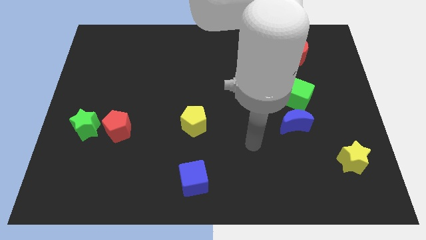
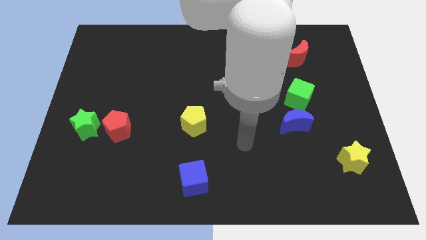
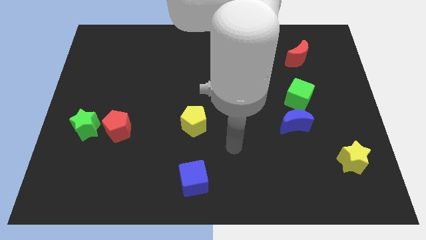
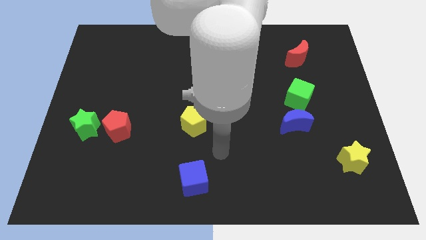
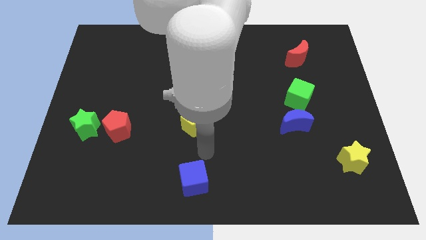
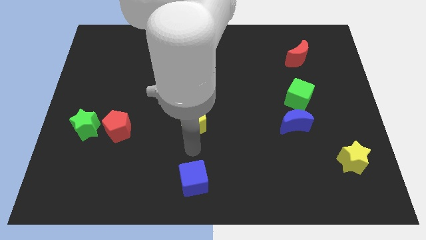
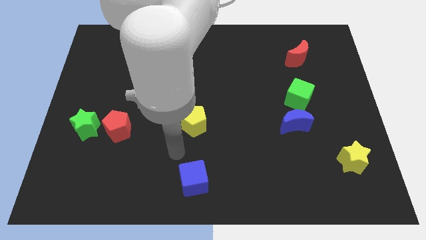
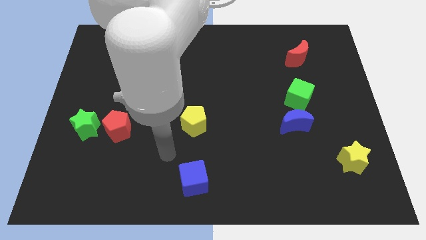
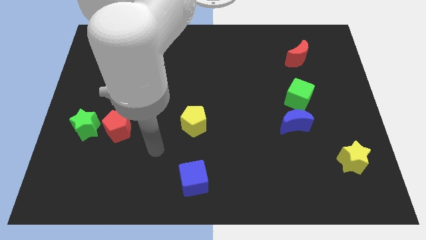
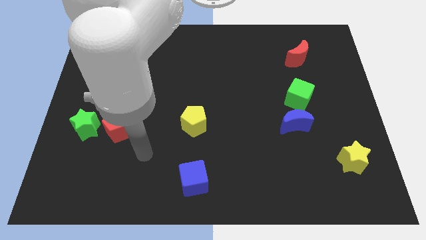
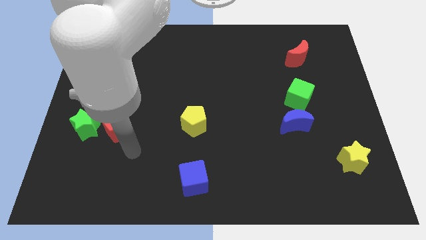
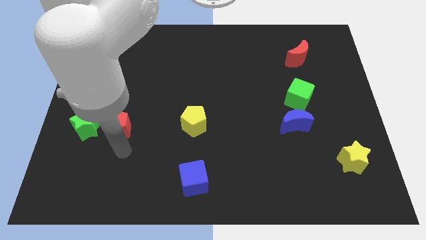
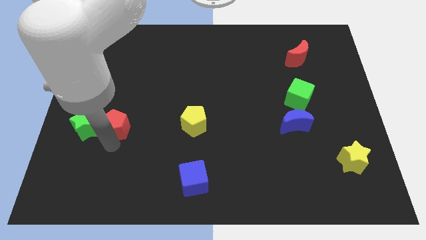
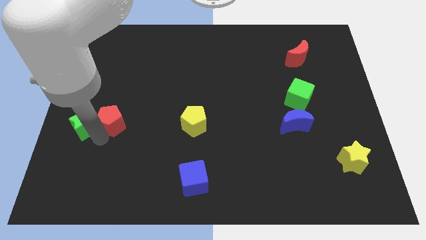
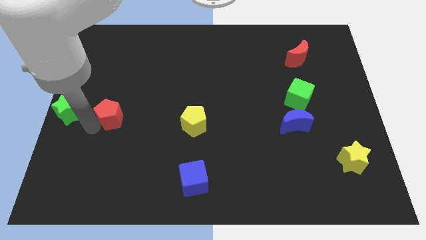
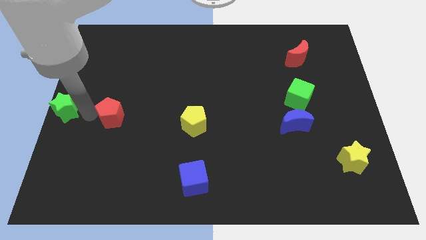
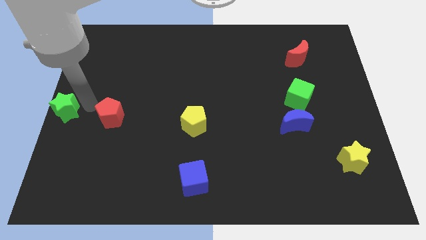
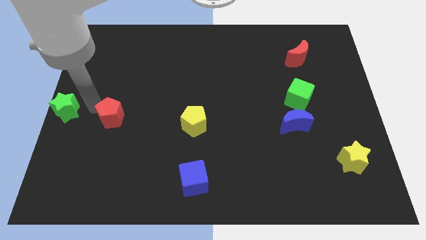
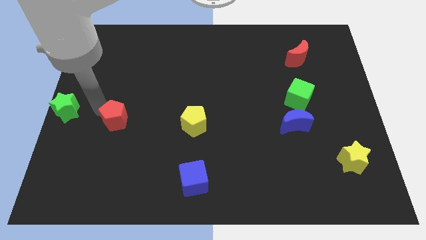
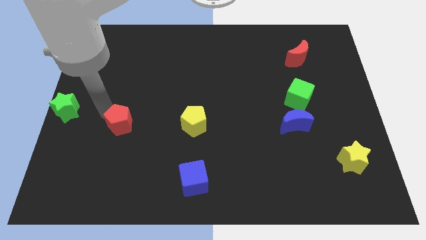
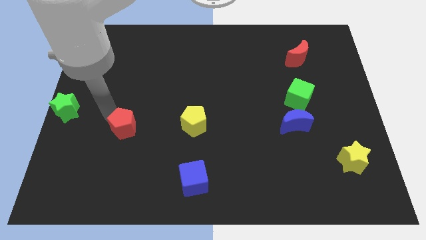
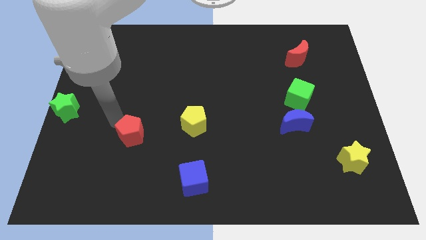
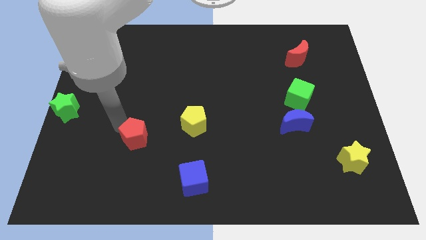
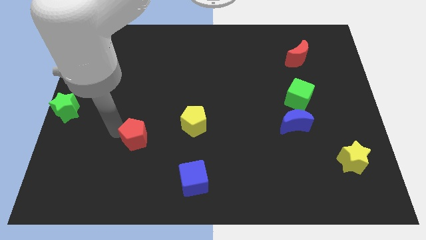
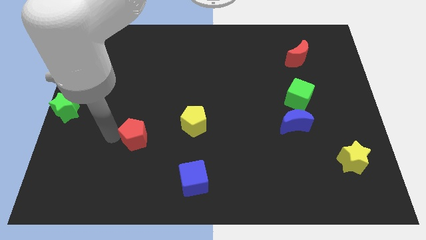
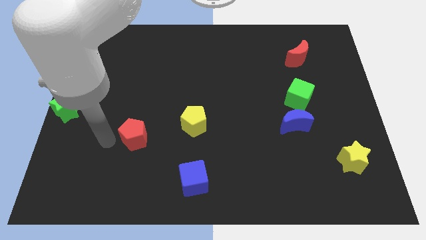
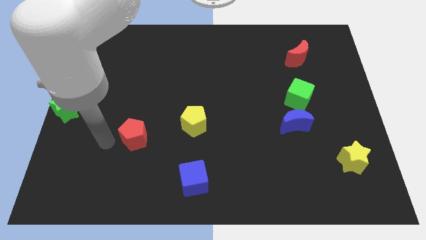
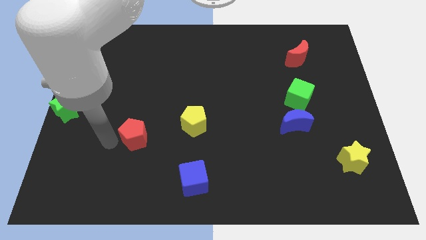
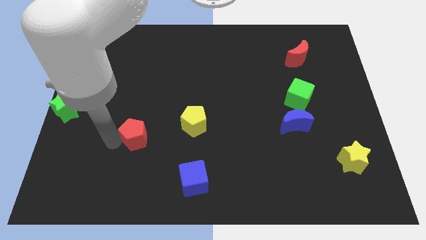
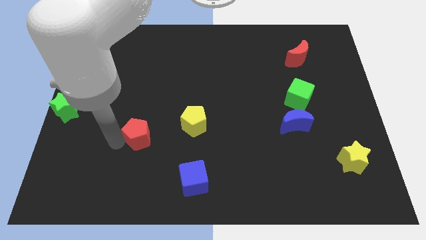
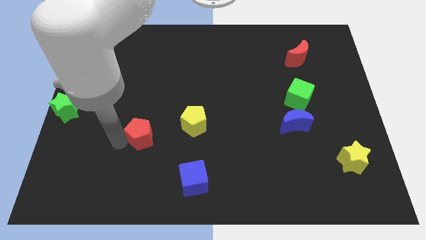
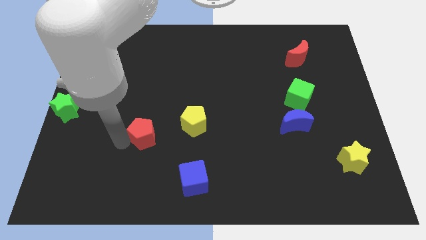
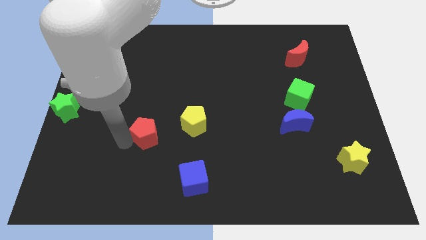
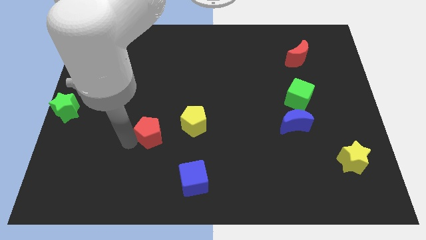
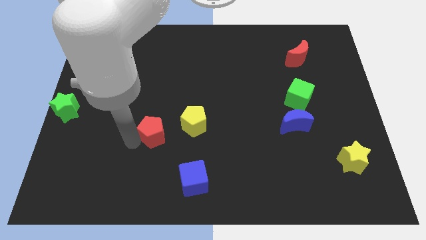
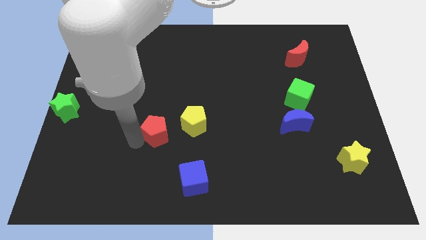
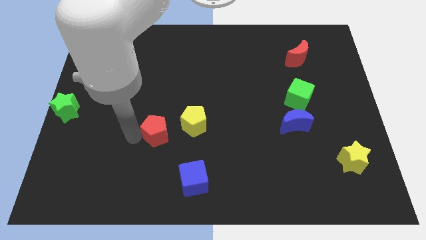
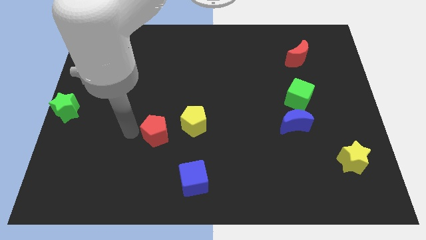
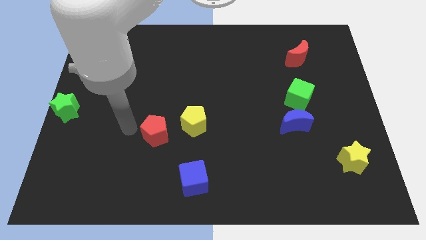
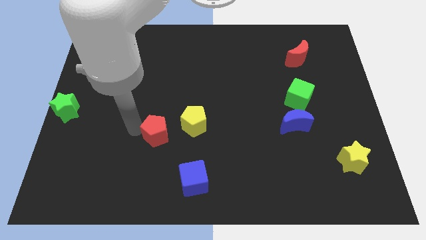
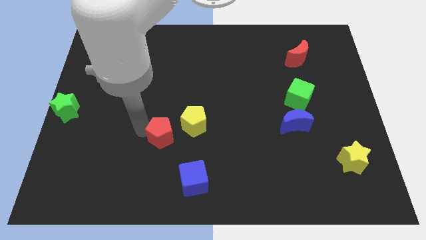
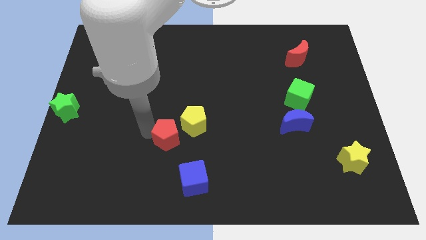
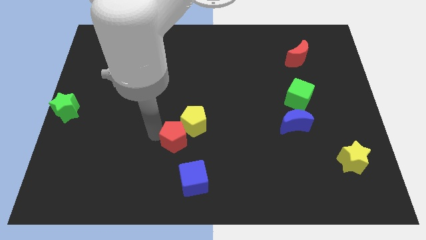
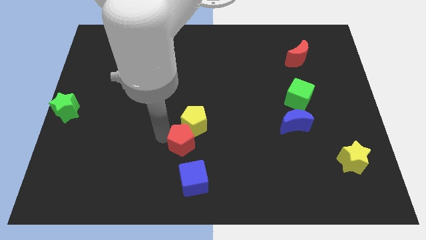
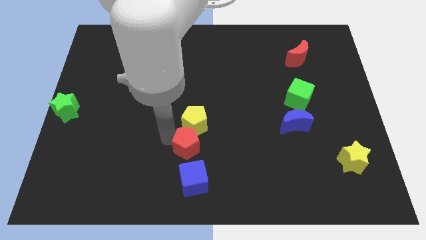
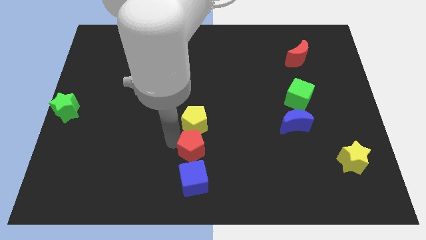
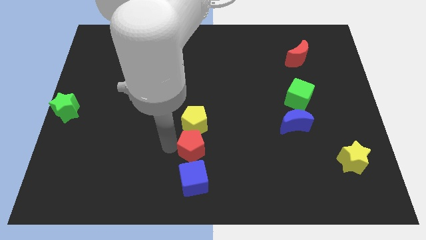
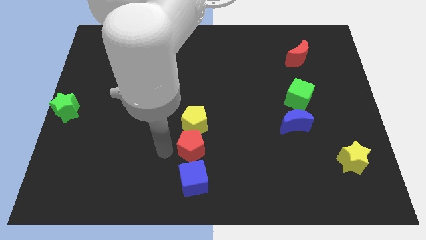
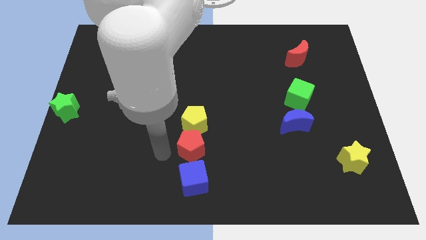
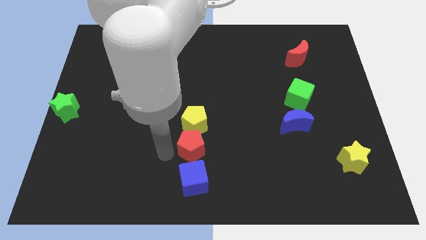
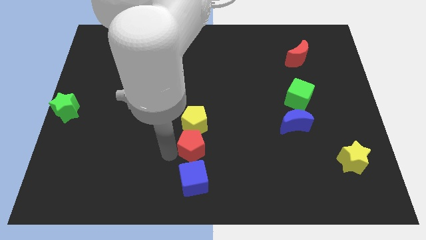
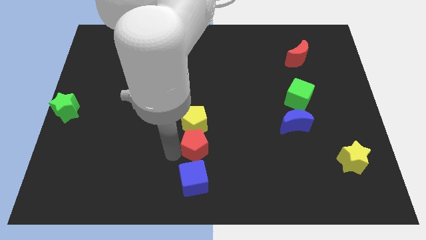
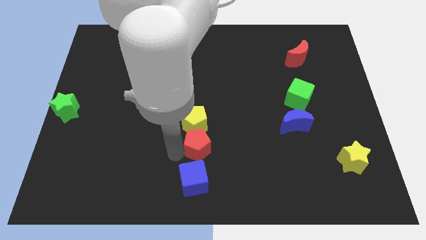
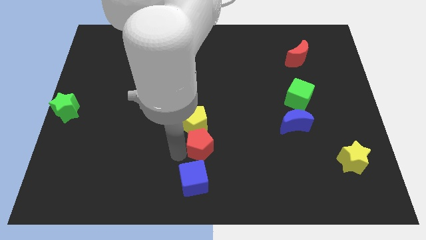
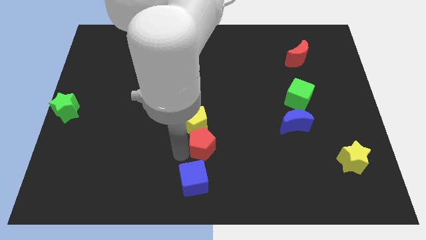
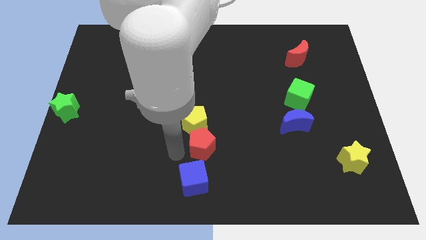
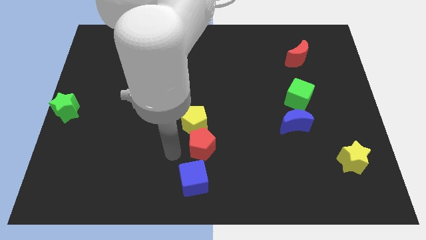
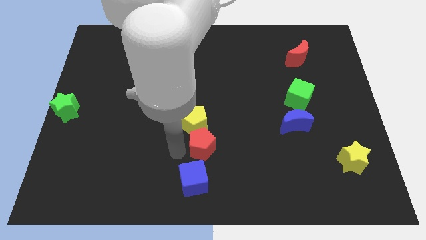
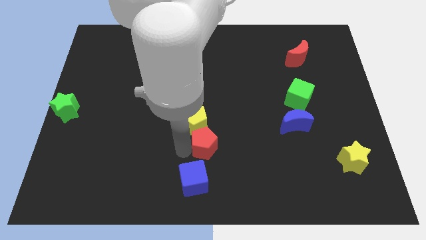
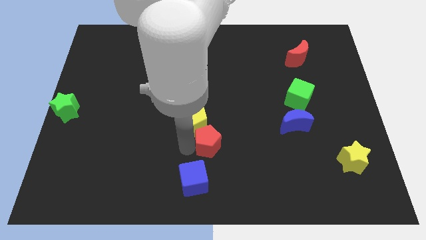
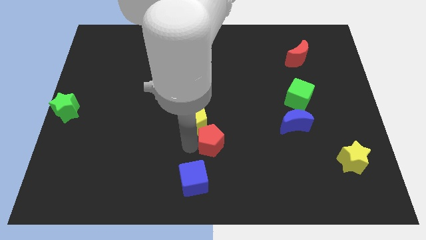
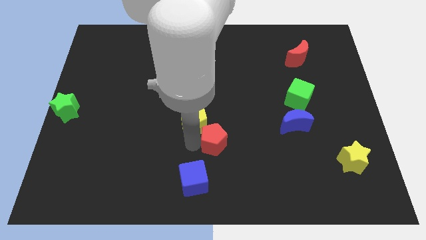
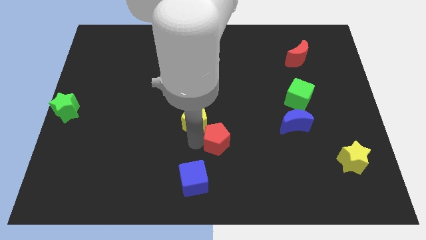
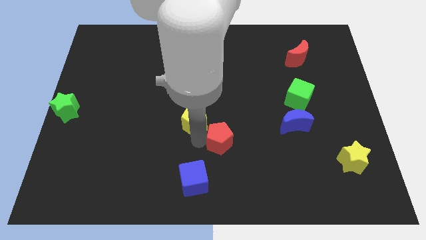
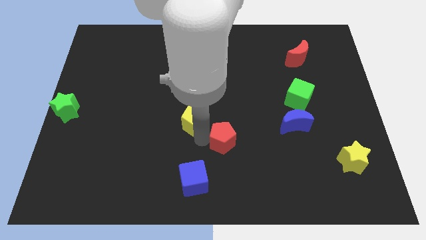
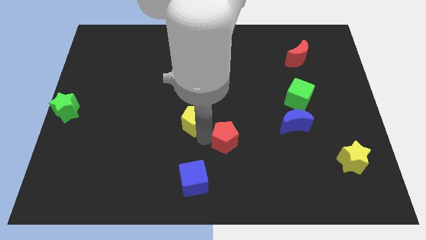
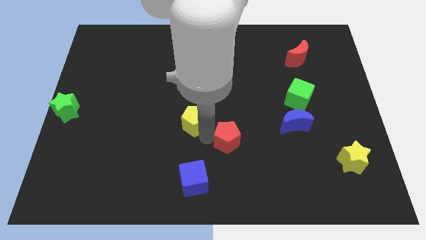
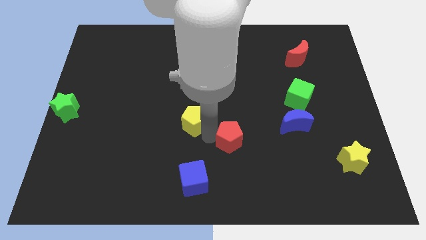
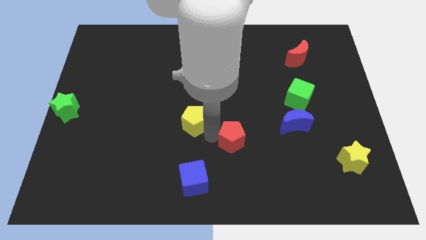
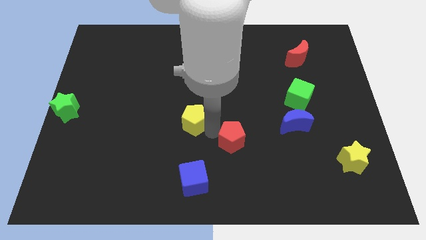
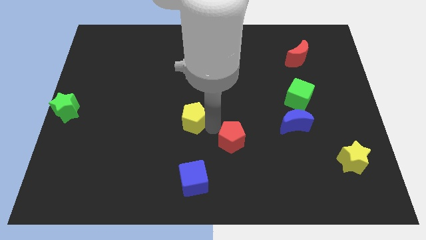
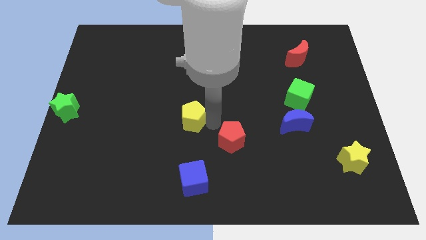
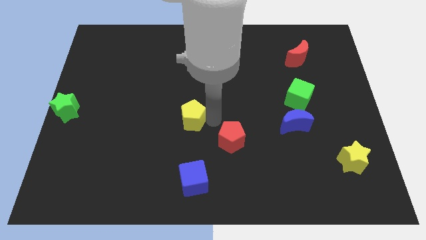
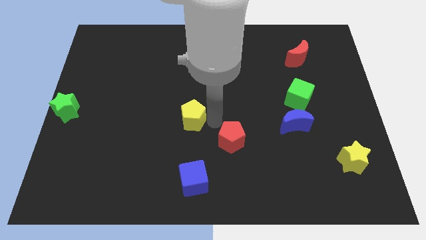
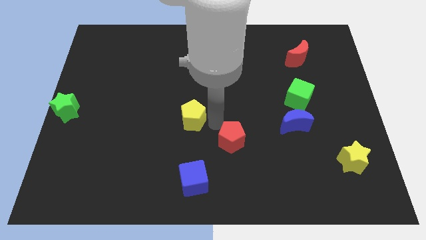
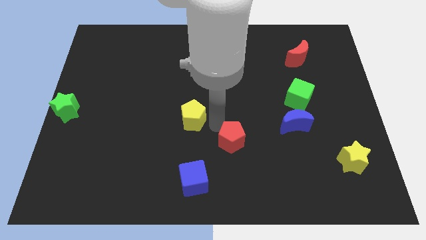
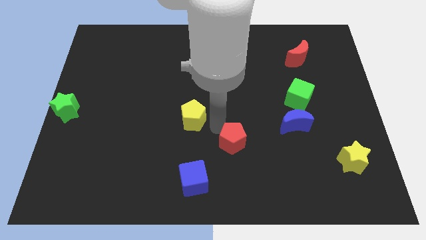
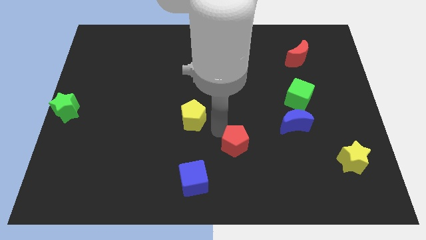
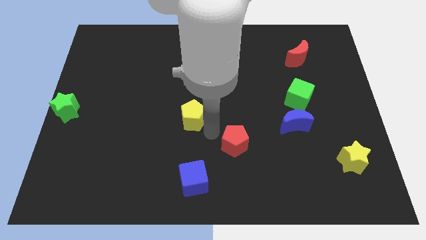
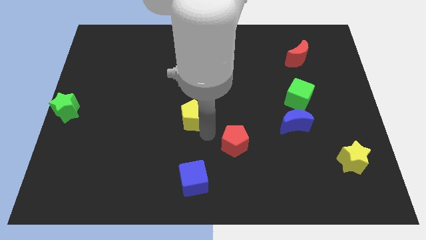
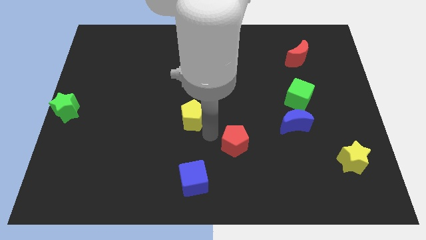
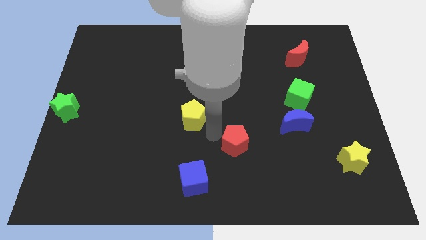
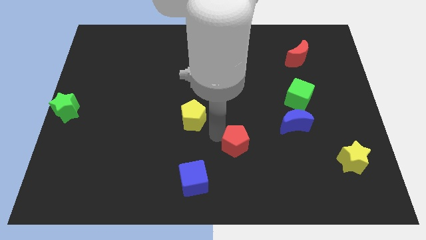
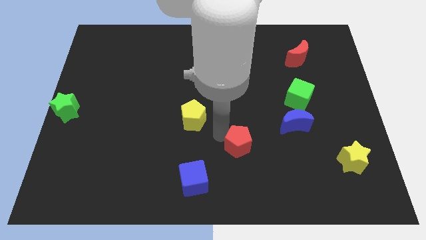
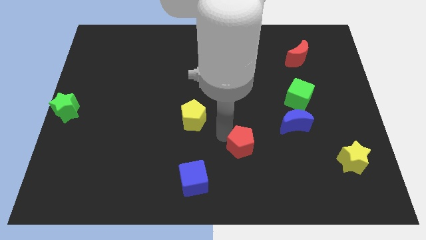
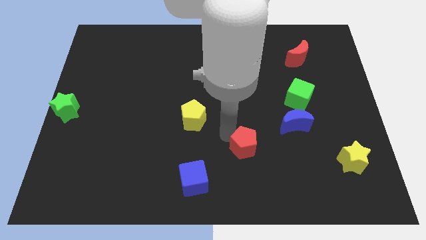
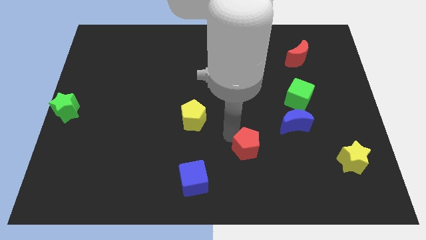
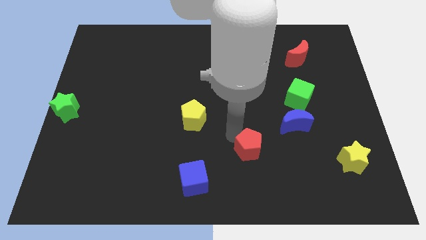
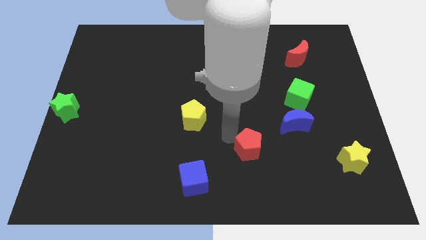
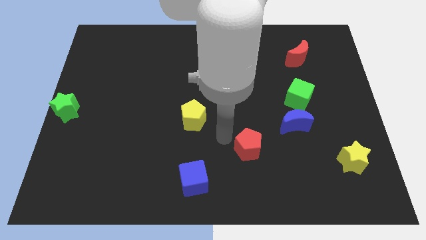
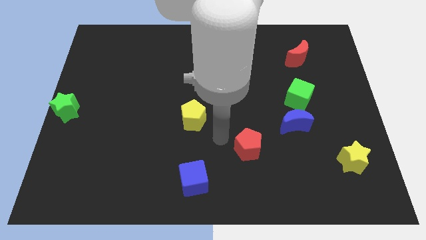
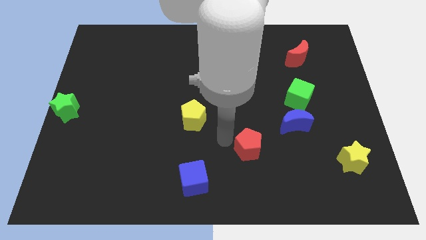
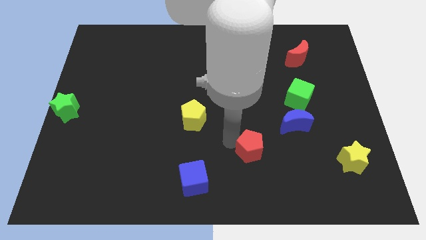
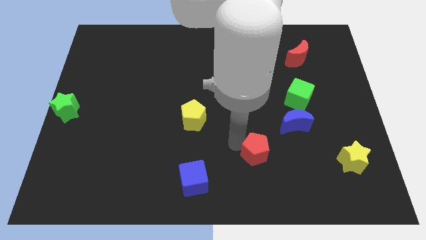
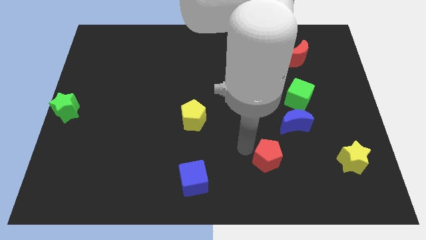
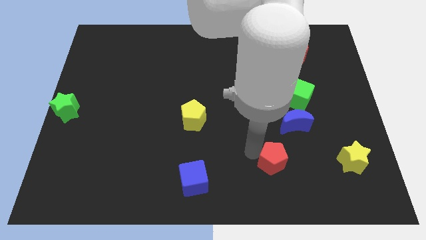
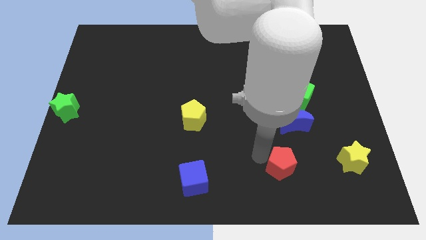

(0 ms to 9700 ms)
move the red pentagon to the left side of the yellow star
